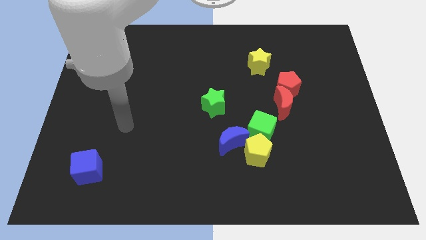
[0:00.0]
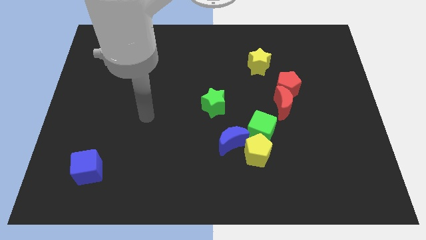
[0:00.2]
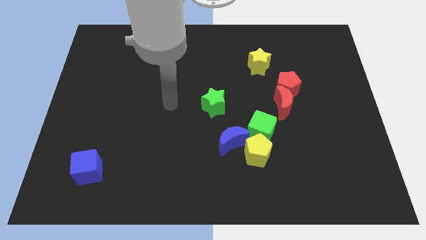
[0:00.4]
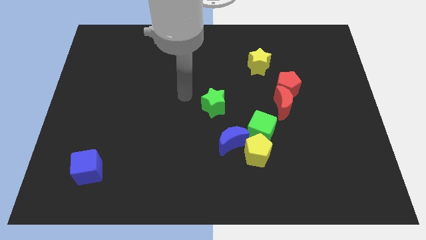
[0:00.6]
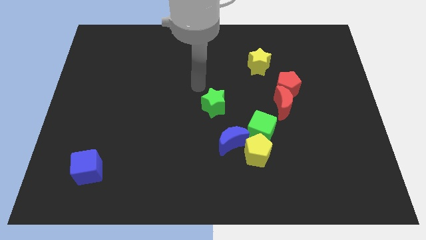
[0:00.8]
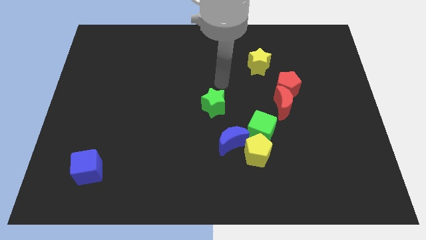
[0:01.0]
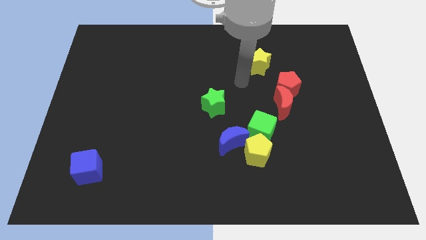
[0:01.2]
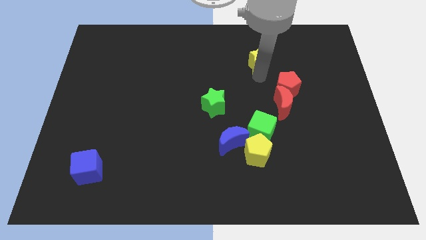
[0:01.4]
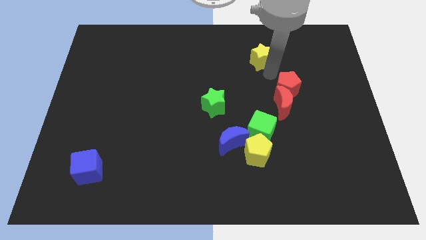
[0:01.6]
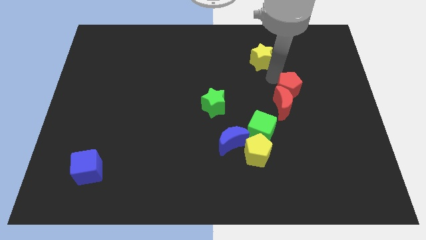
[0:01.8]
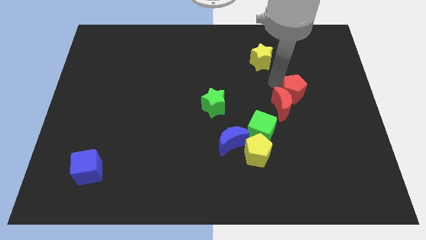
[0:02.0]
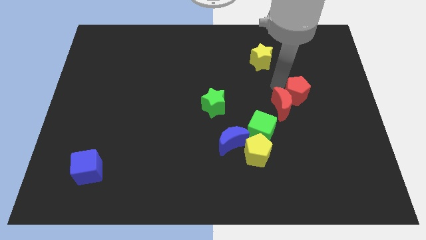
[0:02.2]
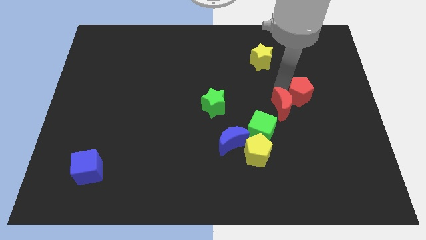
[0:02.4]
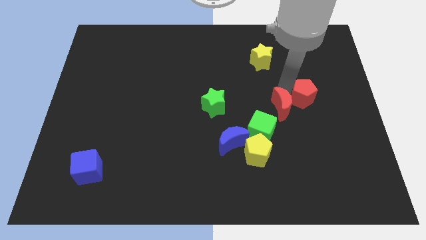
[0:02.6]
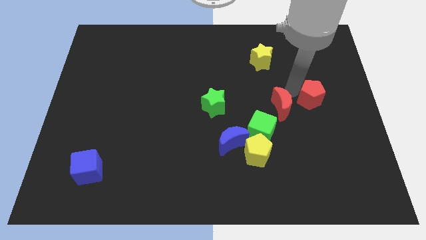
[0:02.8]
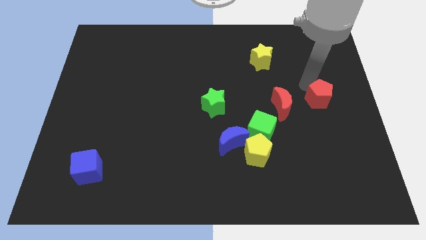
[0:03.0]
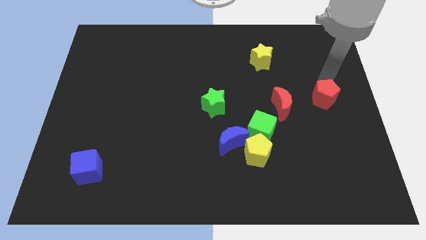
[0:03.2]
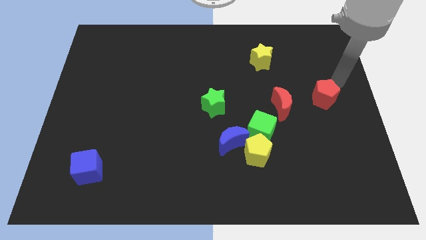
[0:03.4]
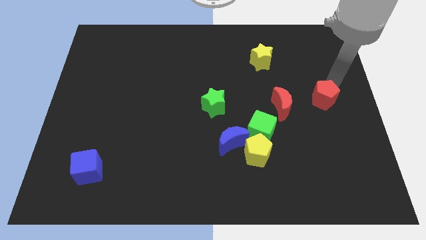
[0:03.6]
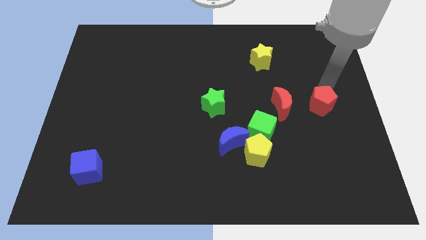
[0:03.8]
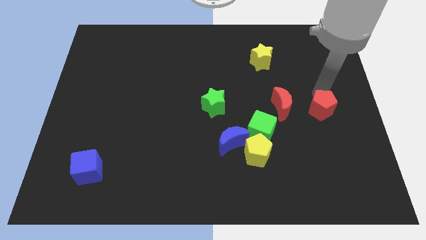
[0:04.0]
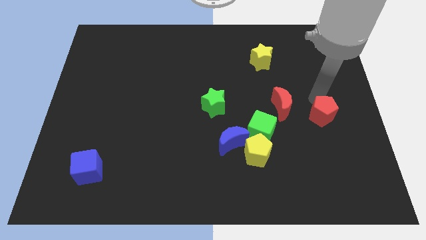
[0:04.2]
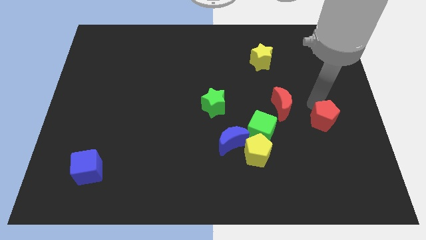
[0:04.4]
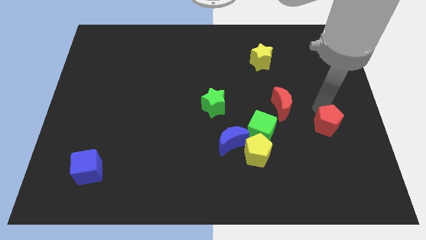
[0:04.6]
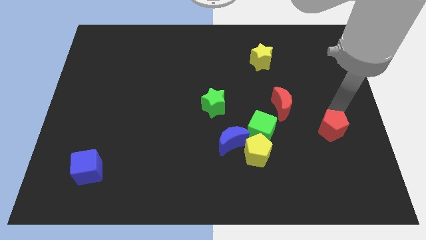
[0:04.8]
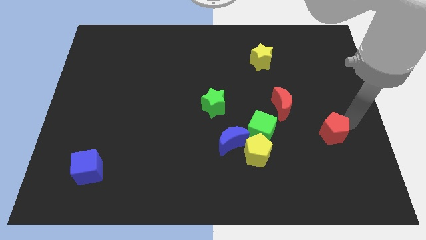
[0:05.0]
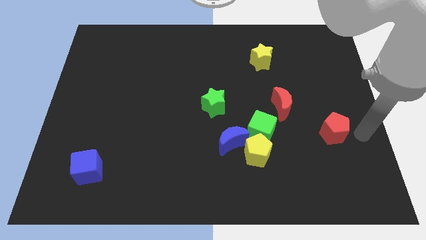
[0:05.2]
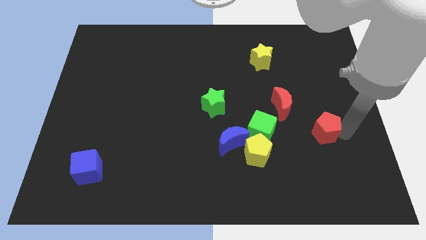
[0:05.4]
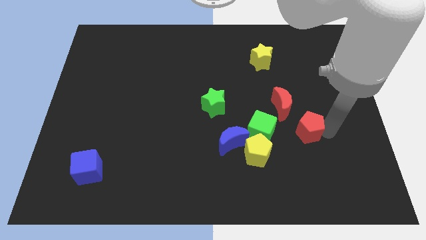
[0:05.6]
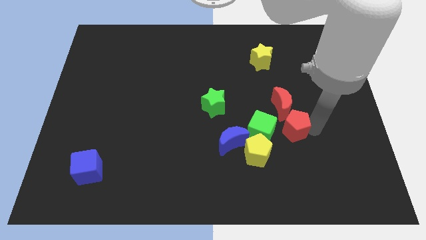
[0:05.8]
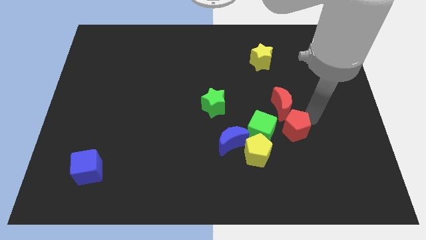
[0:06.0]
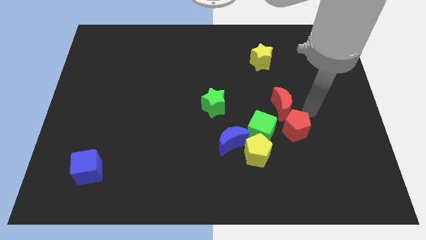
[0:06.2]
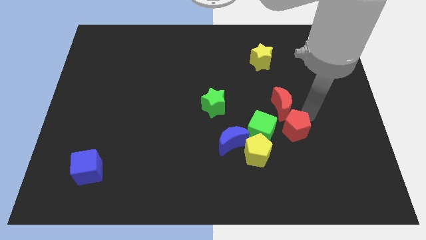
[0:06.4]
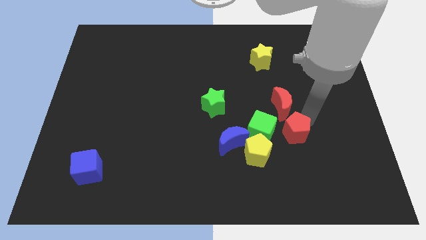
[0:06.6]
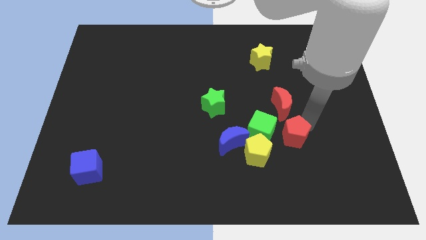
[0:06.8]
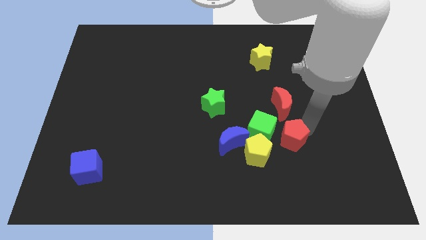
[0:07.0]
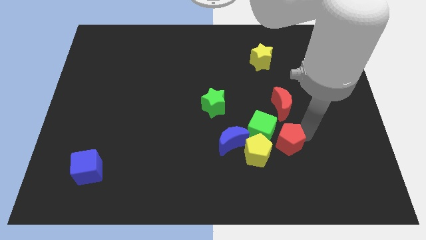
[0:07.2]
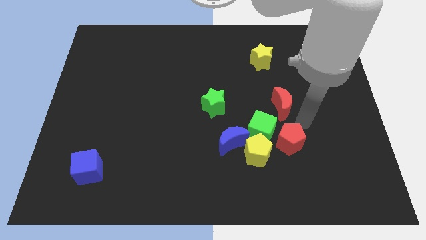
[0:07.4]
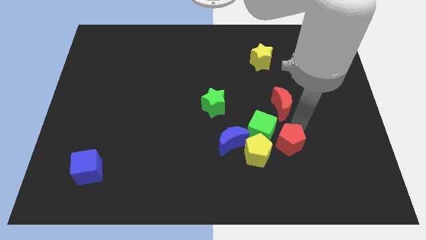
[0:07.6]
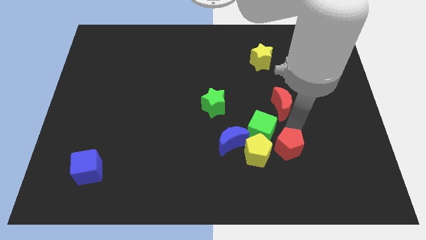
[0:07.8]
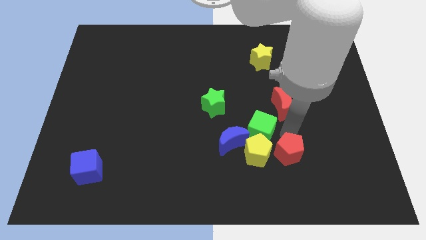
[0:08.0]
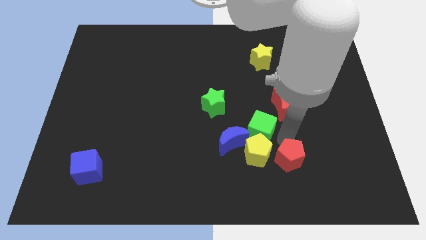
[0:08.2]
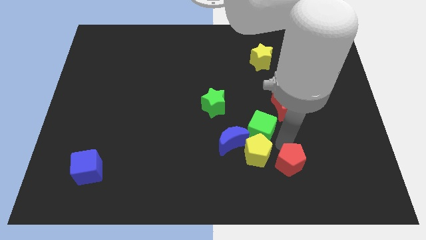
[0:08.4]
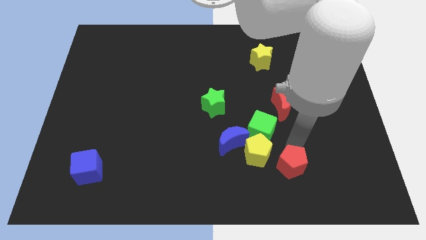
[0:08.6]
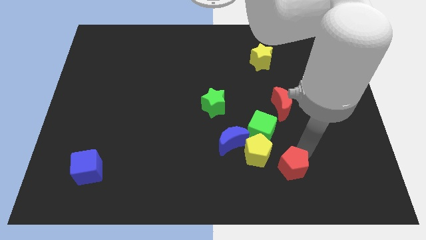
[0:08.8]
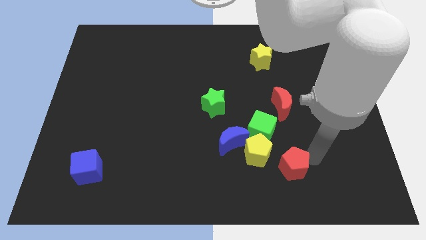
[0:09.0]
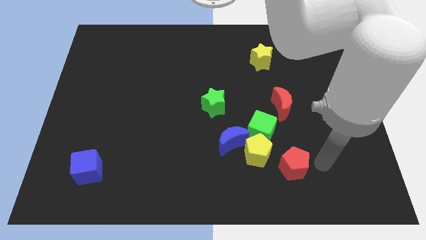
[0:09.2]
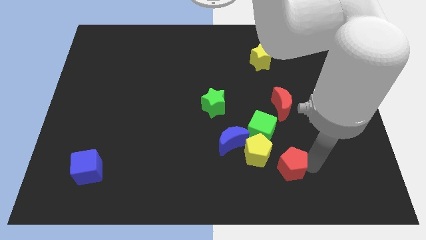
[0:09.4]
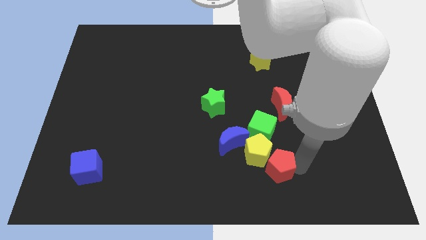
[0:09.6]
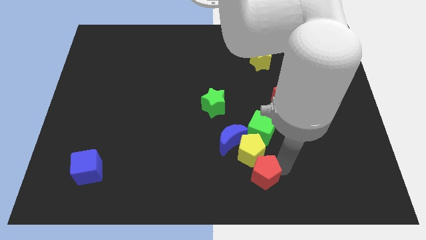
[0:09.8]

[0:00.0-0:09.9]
slide the red pentagon to the bottom side

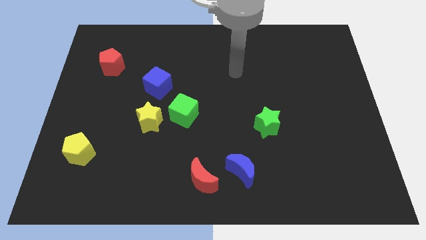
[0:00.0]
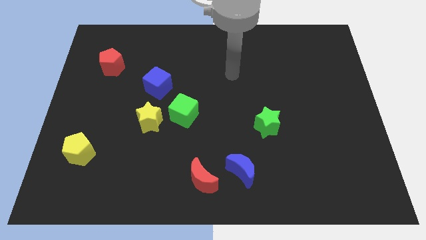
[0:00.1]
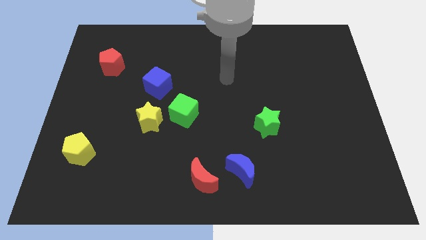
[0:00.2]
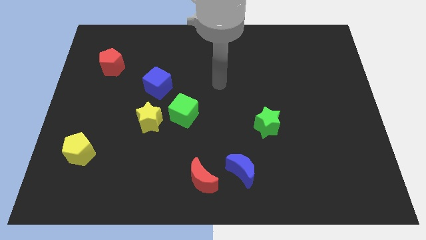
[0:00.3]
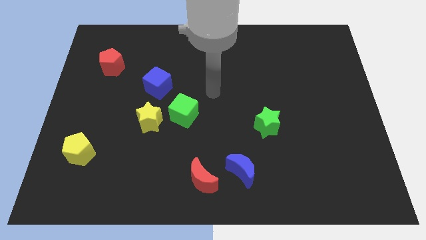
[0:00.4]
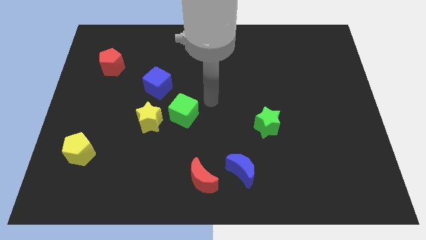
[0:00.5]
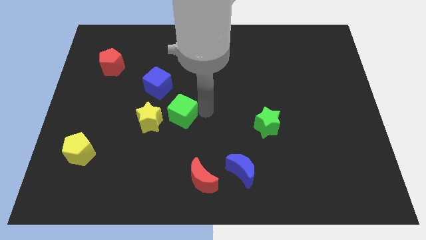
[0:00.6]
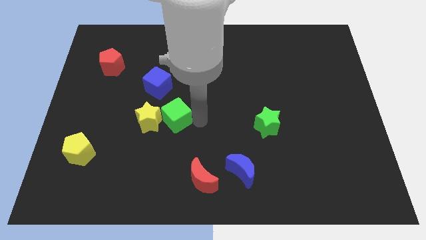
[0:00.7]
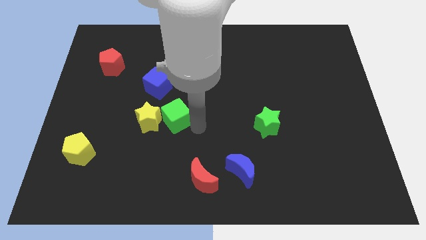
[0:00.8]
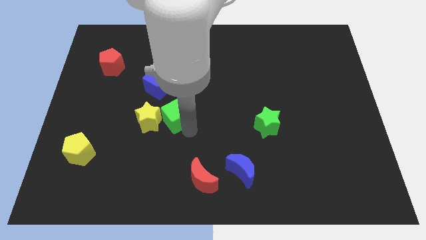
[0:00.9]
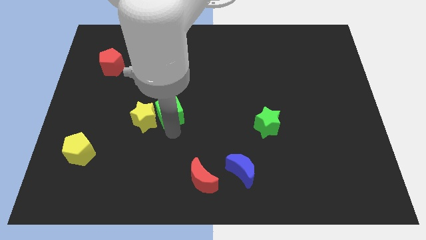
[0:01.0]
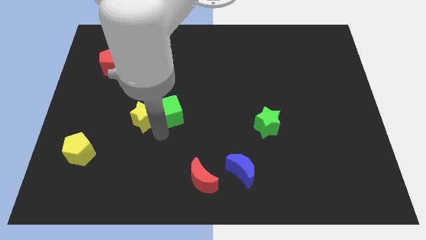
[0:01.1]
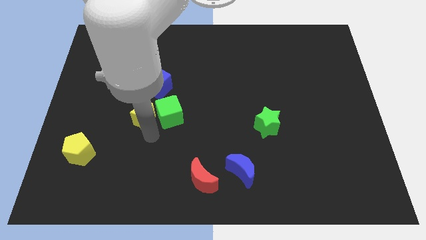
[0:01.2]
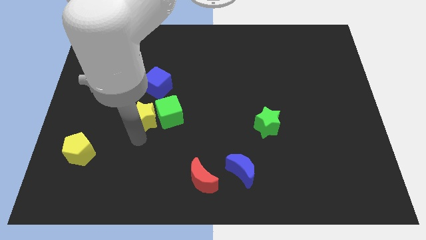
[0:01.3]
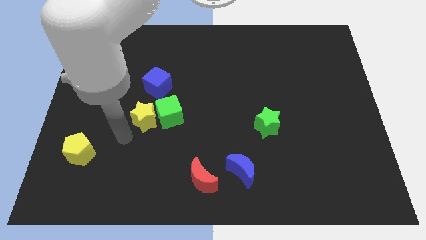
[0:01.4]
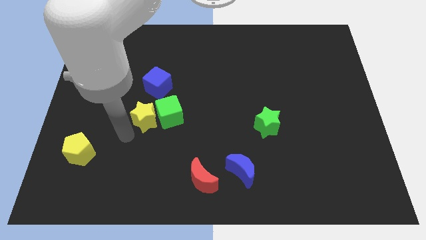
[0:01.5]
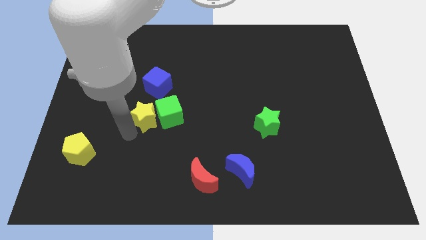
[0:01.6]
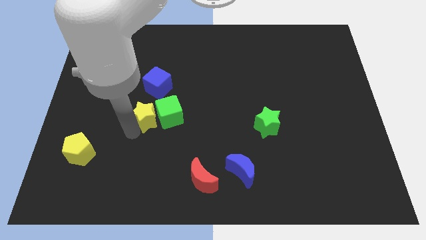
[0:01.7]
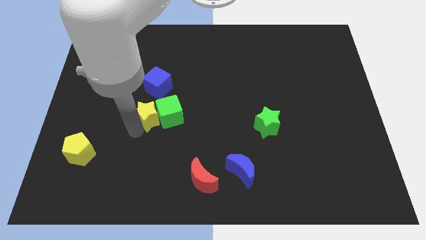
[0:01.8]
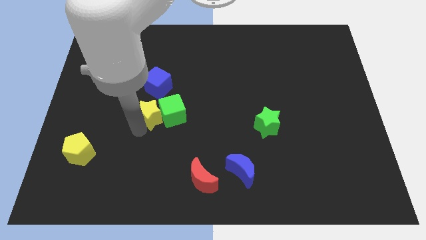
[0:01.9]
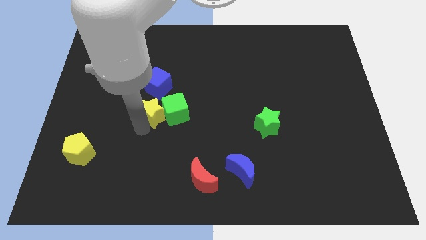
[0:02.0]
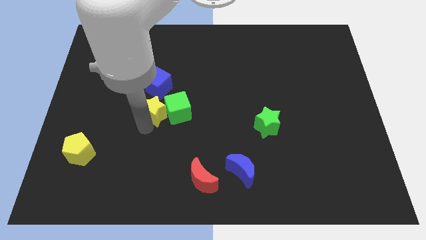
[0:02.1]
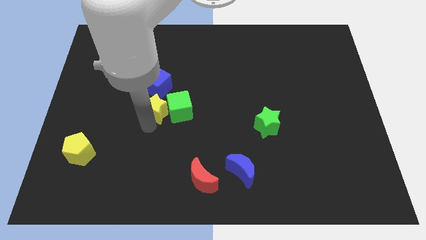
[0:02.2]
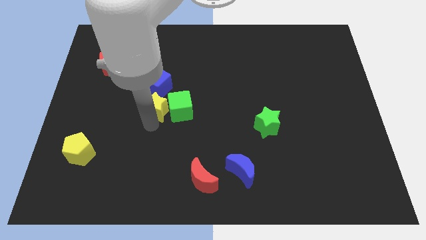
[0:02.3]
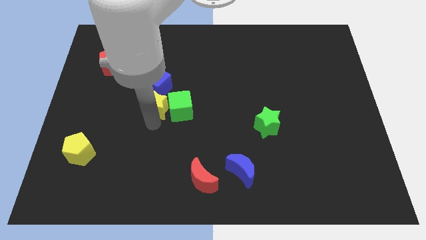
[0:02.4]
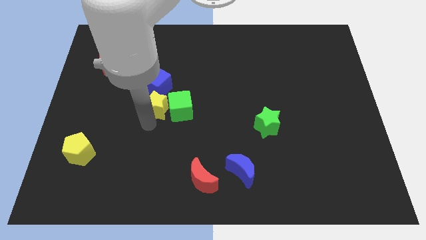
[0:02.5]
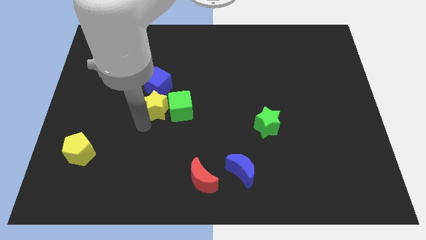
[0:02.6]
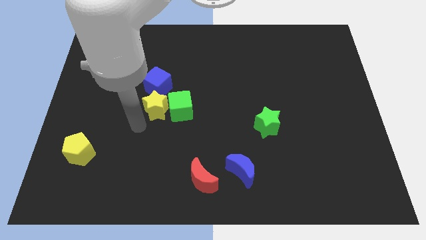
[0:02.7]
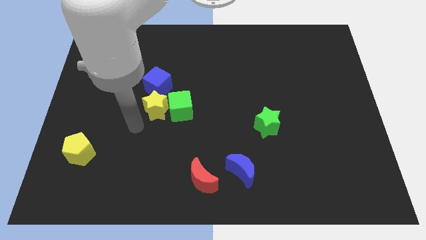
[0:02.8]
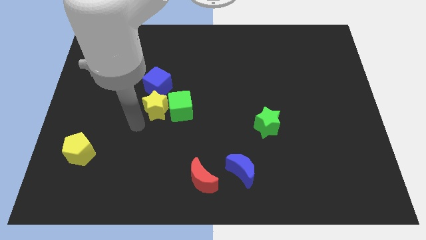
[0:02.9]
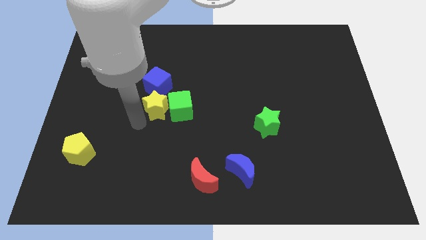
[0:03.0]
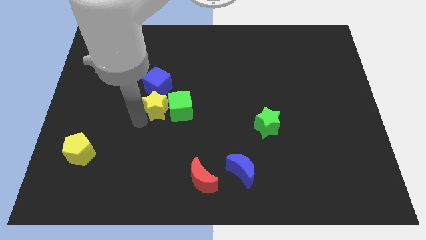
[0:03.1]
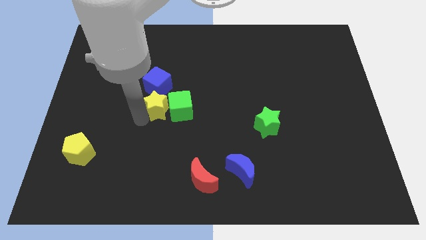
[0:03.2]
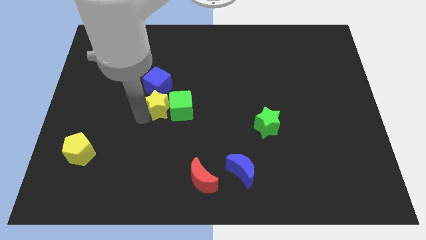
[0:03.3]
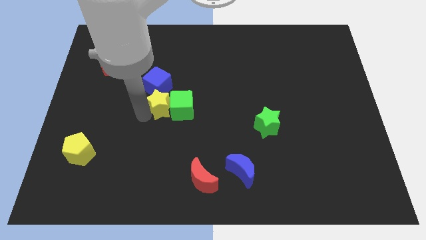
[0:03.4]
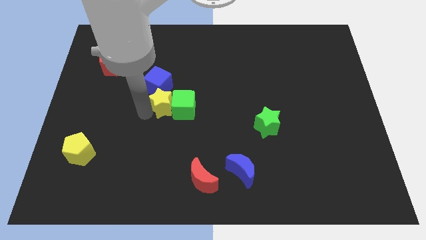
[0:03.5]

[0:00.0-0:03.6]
push the yellow star to the middle
